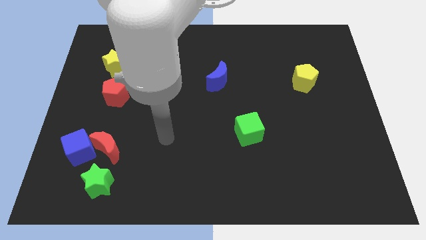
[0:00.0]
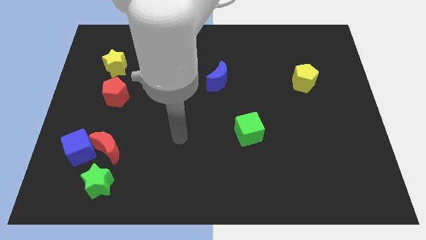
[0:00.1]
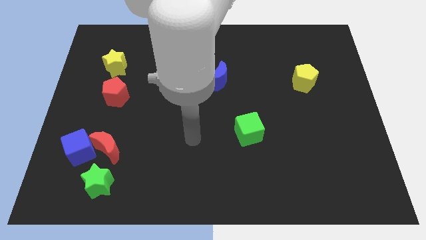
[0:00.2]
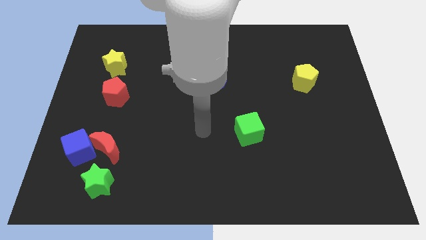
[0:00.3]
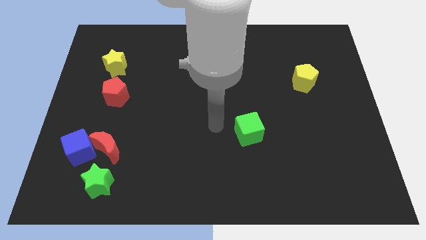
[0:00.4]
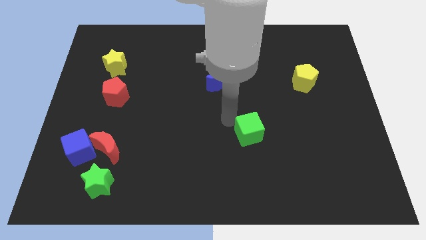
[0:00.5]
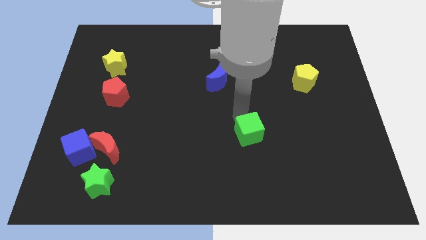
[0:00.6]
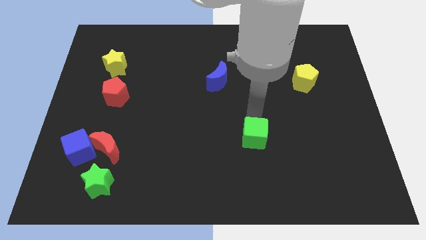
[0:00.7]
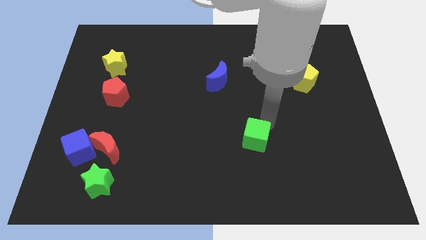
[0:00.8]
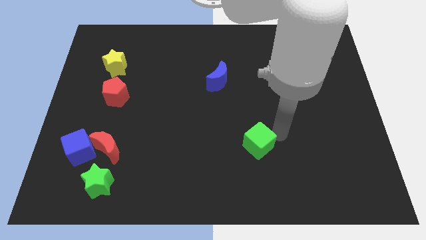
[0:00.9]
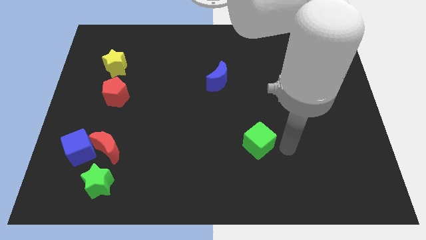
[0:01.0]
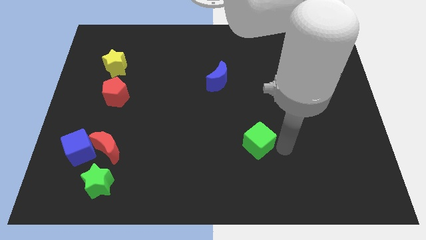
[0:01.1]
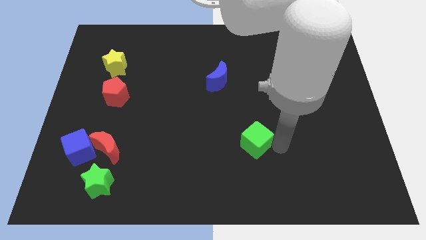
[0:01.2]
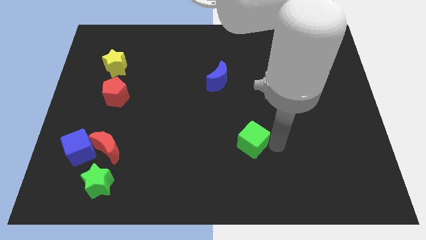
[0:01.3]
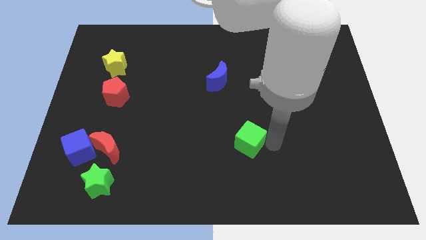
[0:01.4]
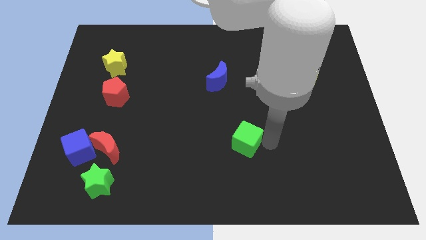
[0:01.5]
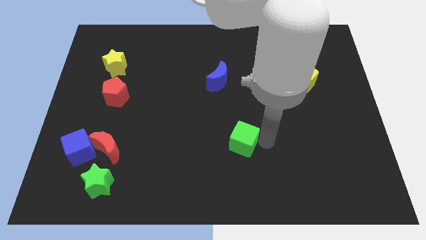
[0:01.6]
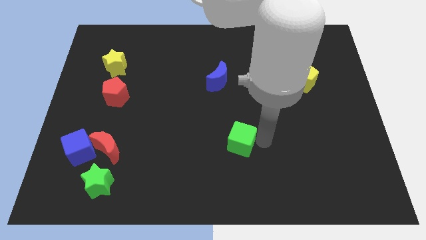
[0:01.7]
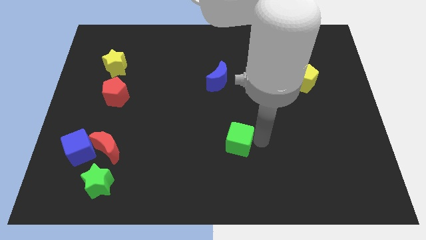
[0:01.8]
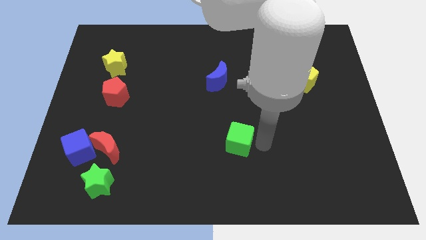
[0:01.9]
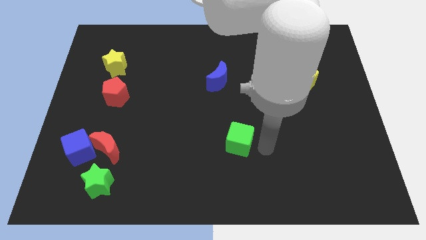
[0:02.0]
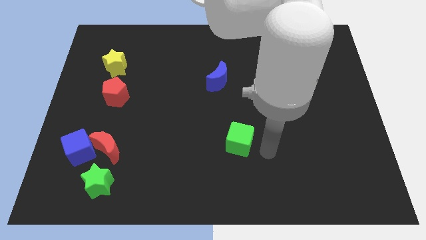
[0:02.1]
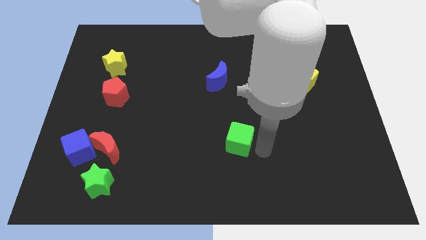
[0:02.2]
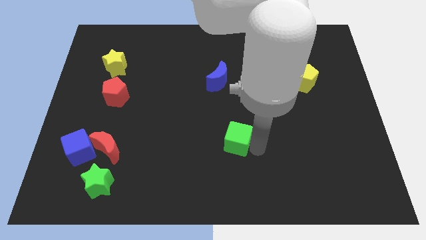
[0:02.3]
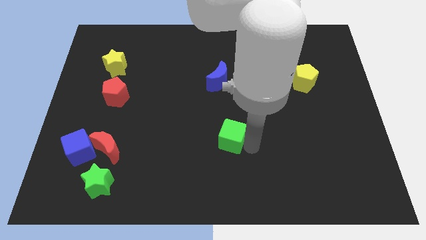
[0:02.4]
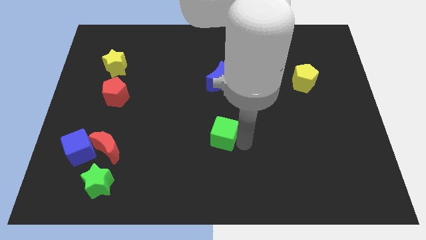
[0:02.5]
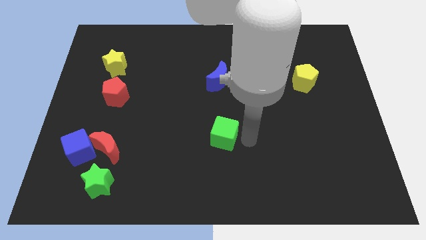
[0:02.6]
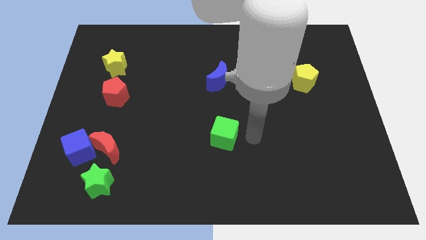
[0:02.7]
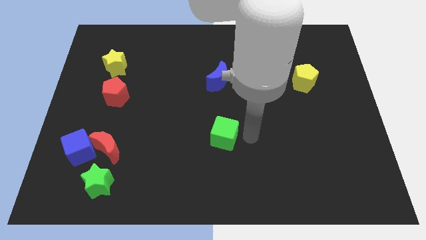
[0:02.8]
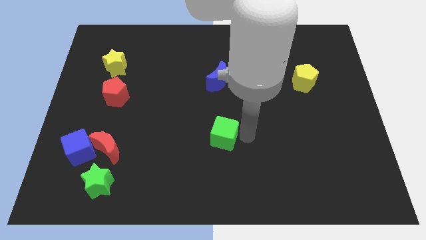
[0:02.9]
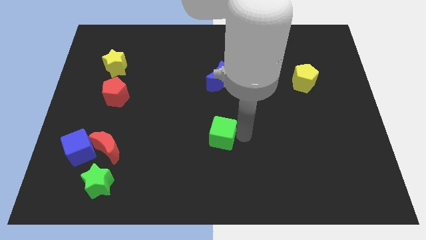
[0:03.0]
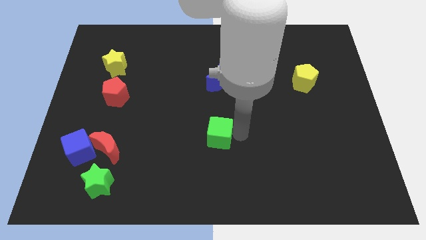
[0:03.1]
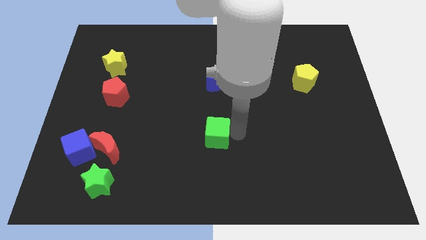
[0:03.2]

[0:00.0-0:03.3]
slide the green cube to the left a little bit

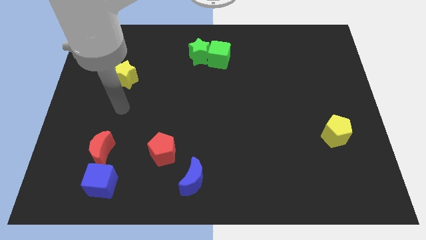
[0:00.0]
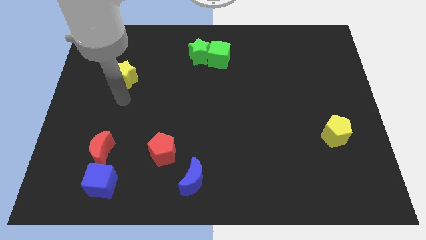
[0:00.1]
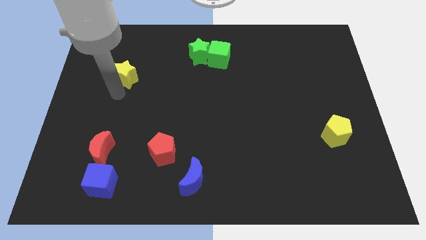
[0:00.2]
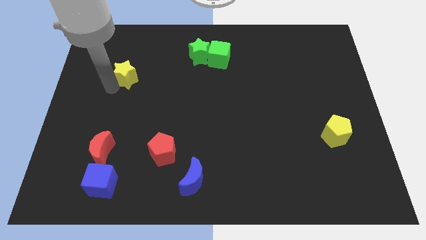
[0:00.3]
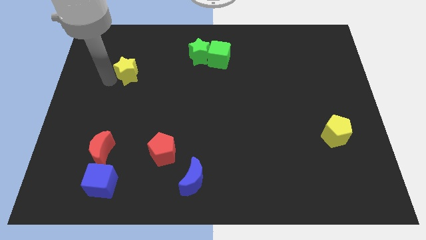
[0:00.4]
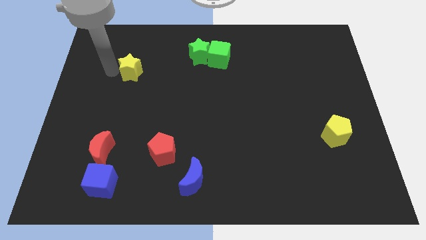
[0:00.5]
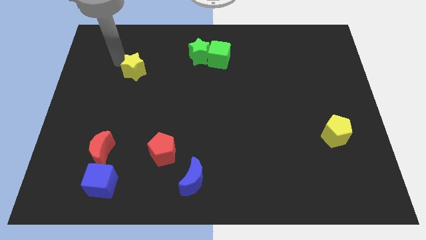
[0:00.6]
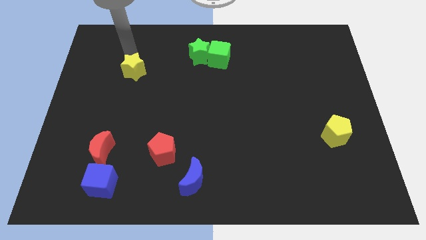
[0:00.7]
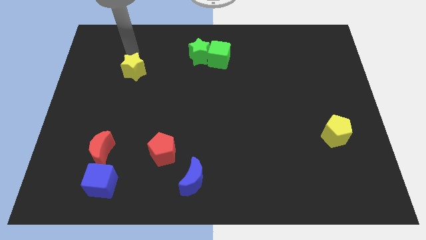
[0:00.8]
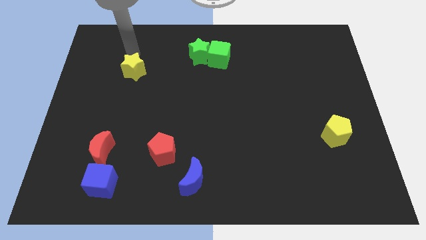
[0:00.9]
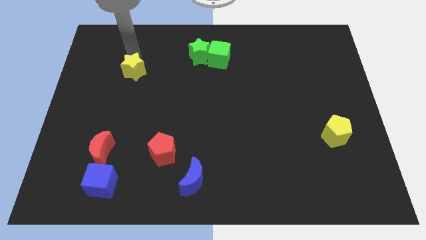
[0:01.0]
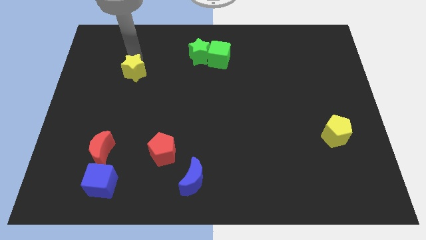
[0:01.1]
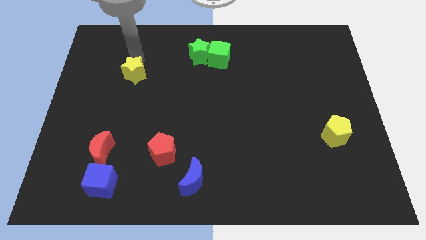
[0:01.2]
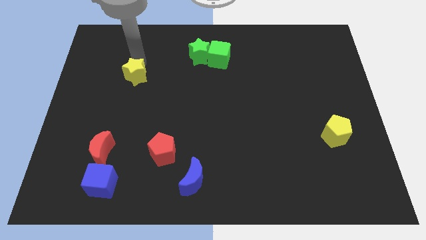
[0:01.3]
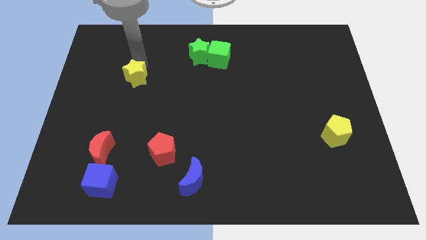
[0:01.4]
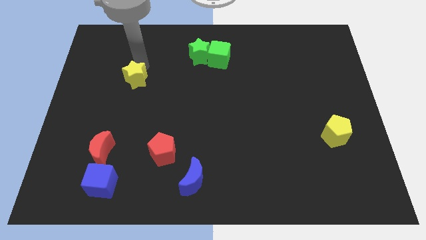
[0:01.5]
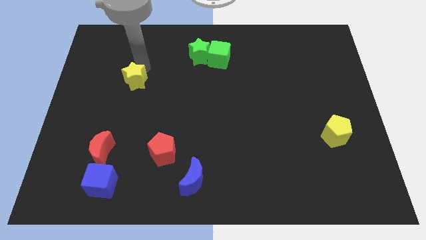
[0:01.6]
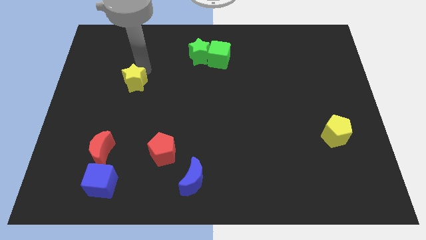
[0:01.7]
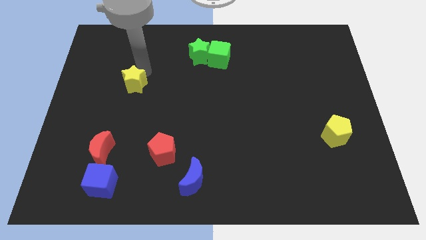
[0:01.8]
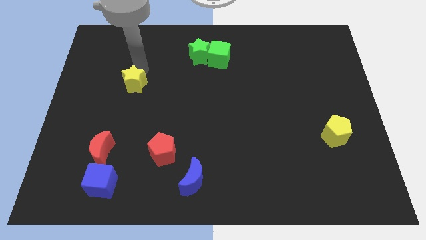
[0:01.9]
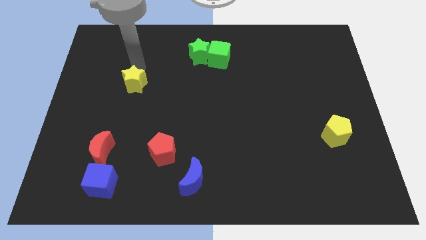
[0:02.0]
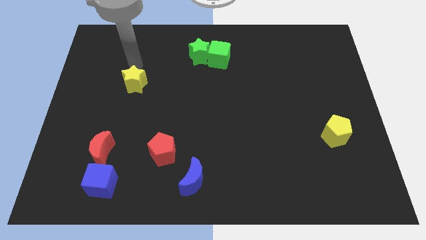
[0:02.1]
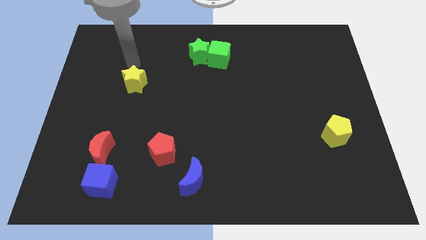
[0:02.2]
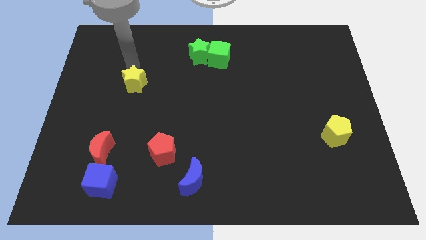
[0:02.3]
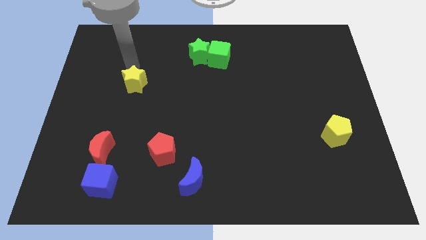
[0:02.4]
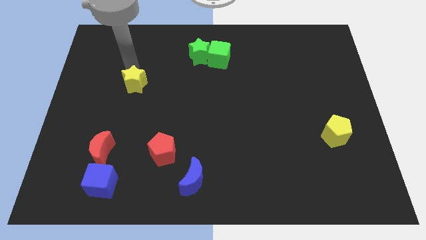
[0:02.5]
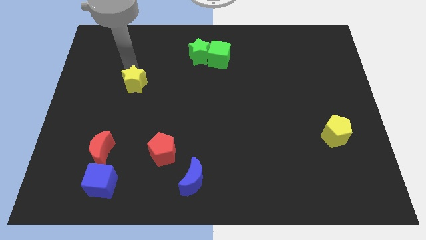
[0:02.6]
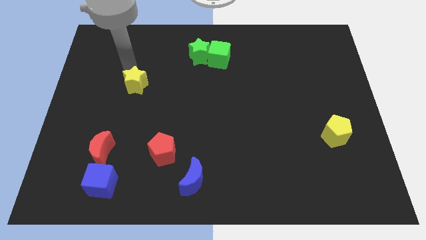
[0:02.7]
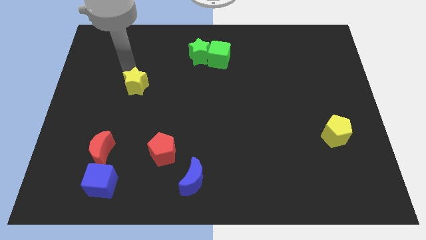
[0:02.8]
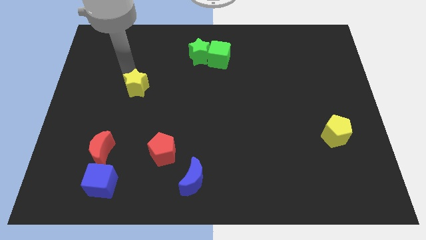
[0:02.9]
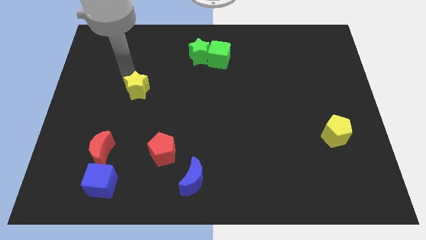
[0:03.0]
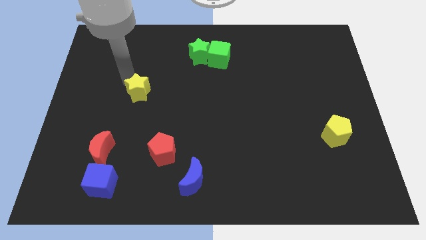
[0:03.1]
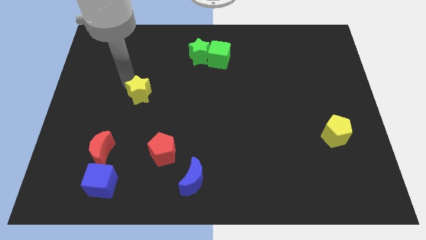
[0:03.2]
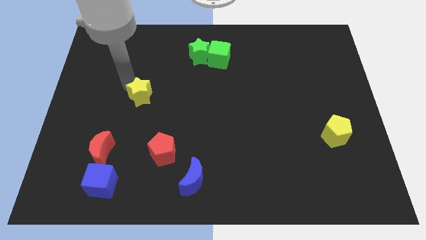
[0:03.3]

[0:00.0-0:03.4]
slightly move the yellow star down and right

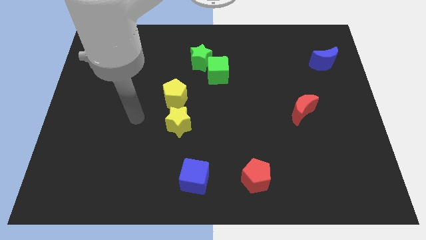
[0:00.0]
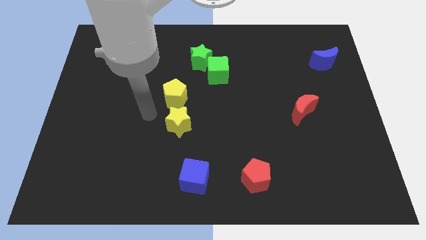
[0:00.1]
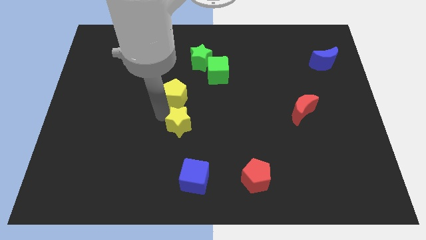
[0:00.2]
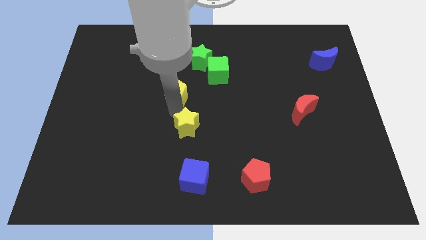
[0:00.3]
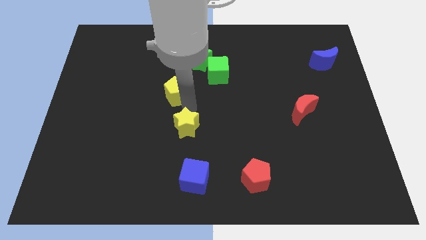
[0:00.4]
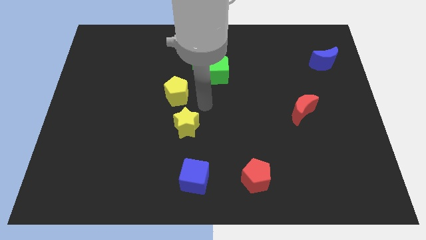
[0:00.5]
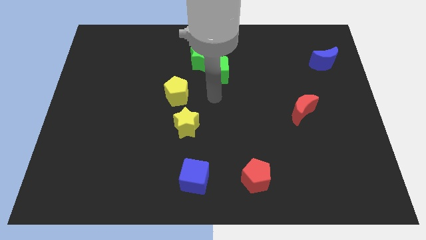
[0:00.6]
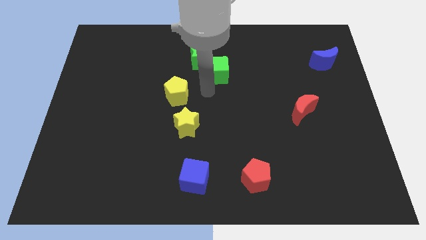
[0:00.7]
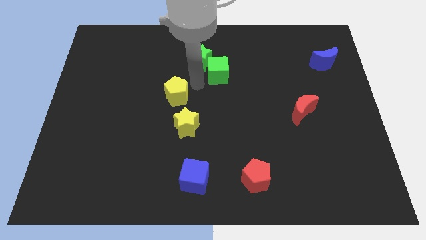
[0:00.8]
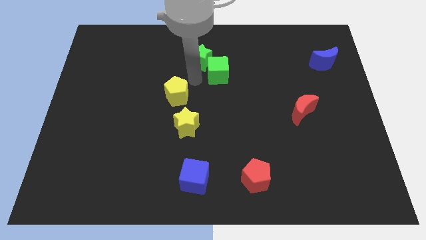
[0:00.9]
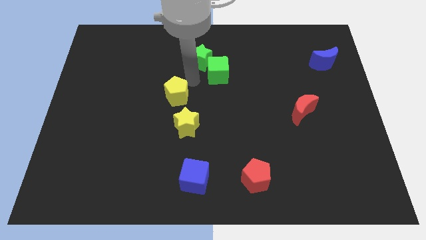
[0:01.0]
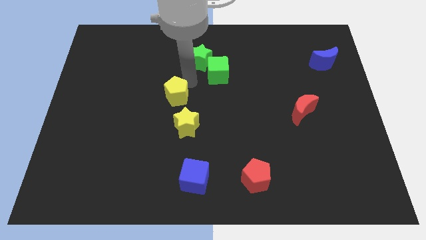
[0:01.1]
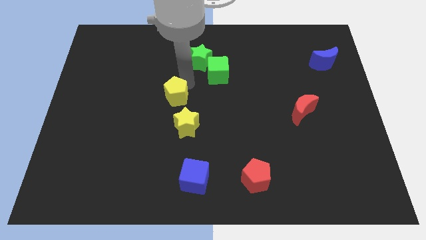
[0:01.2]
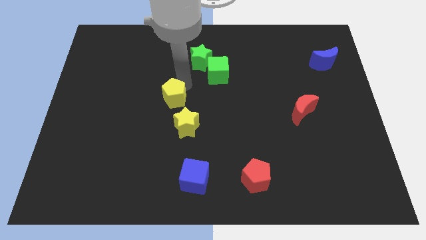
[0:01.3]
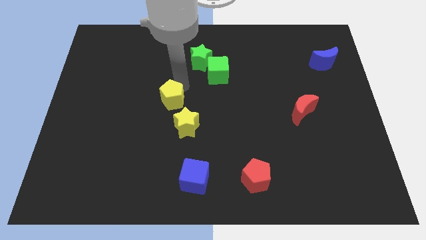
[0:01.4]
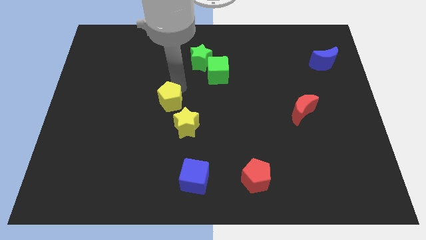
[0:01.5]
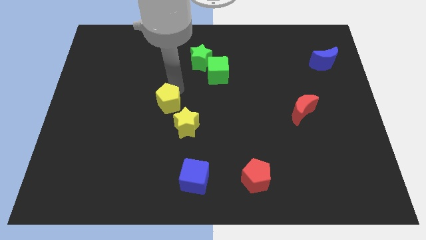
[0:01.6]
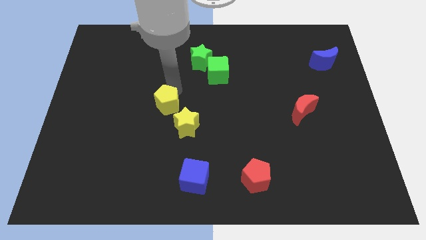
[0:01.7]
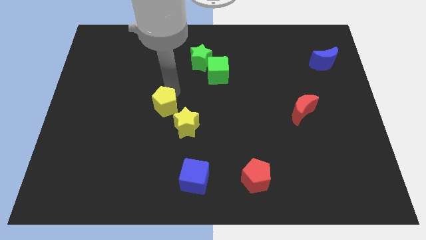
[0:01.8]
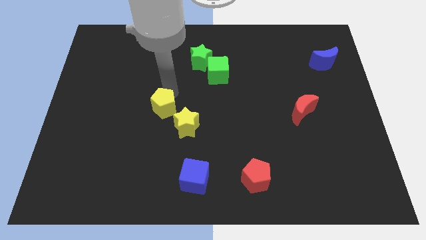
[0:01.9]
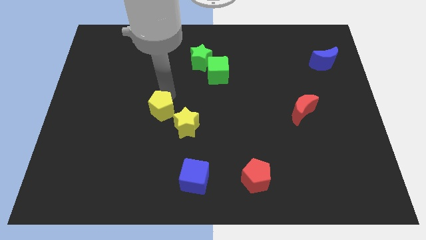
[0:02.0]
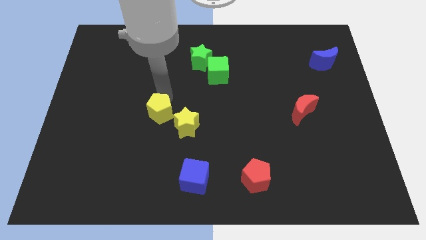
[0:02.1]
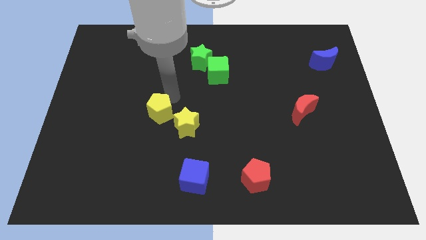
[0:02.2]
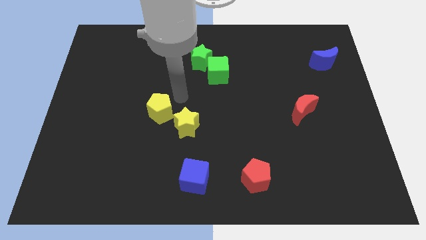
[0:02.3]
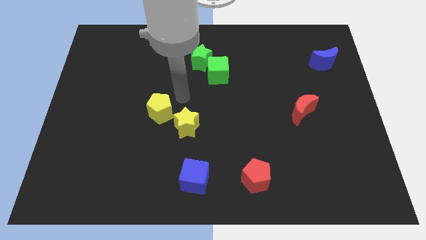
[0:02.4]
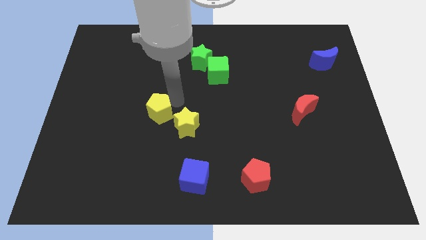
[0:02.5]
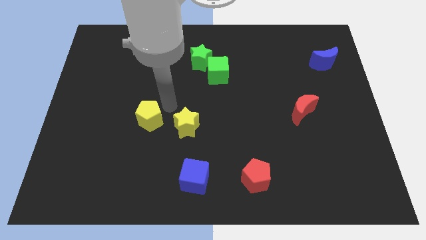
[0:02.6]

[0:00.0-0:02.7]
move the yellow pentagon down and to the left slightly
